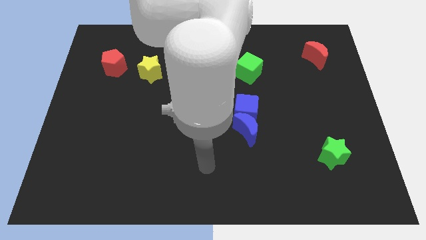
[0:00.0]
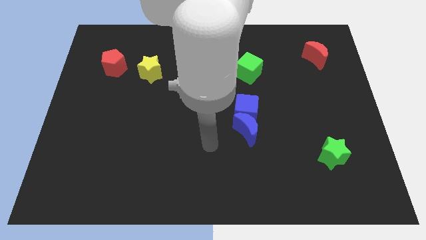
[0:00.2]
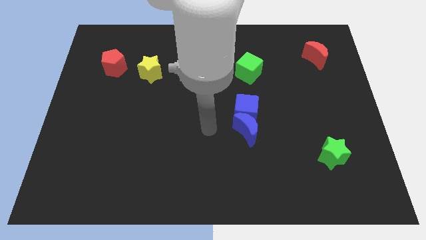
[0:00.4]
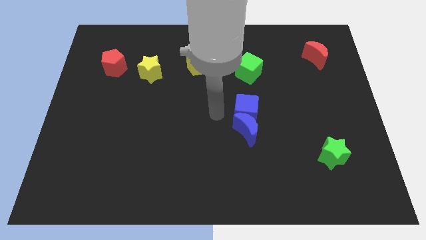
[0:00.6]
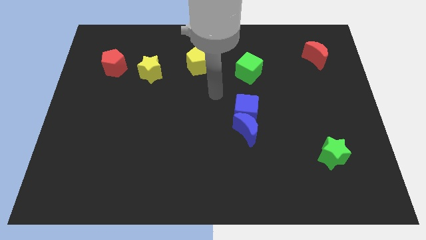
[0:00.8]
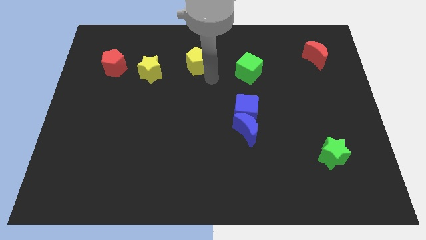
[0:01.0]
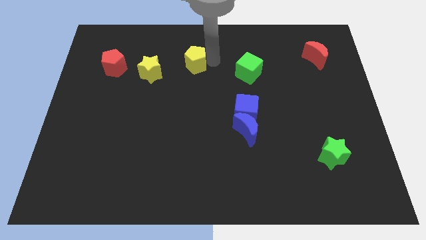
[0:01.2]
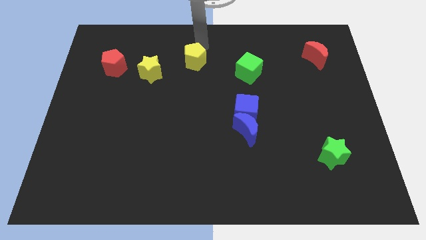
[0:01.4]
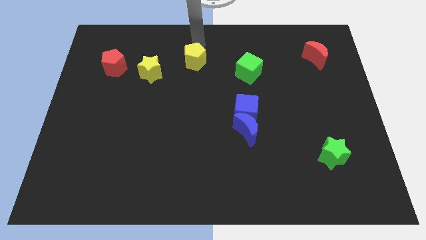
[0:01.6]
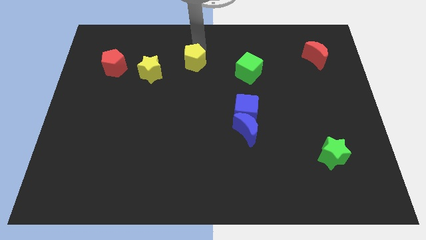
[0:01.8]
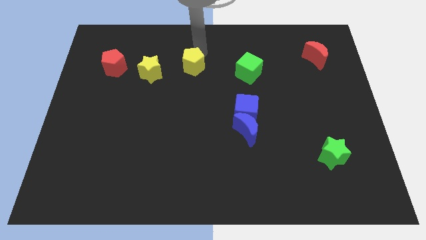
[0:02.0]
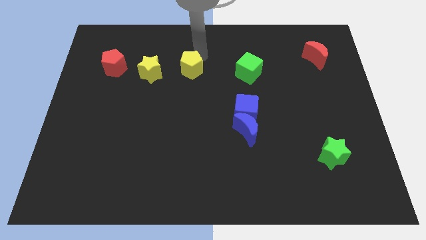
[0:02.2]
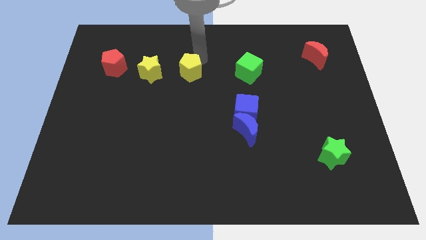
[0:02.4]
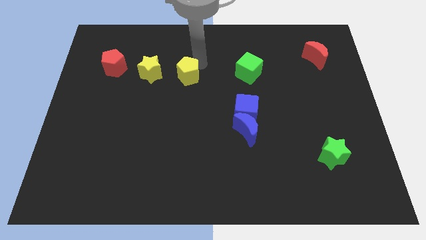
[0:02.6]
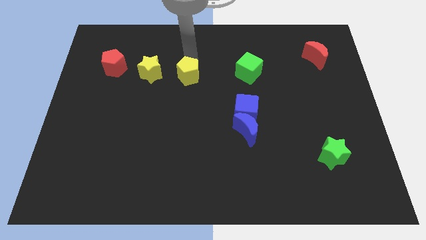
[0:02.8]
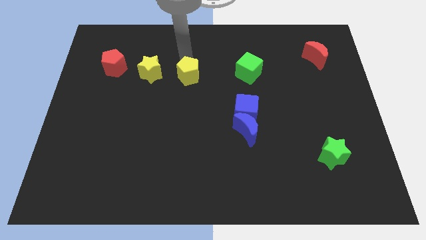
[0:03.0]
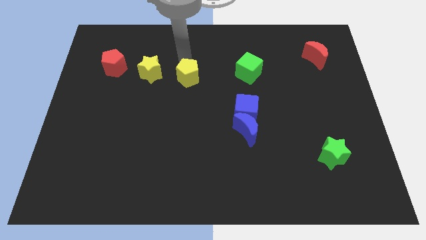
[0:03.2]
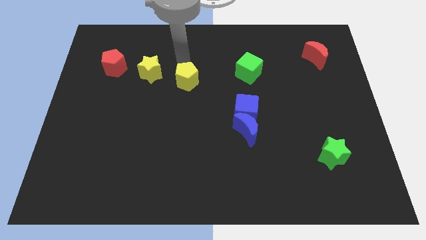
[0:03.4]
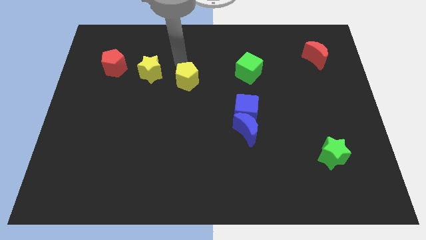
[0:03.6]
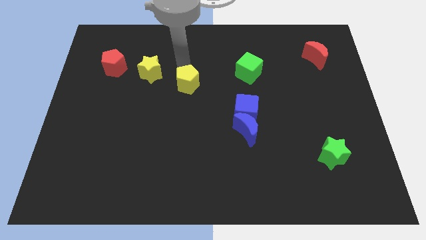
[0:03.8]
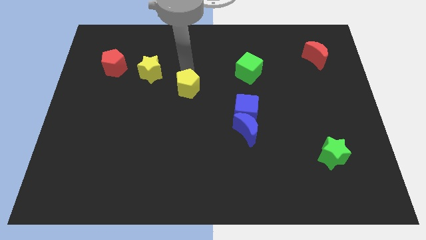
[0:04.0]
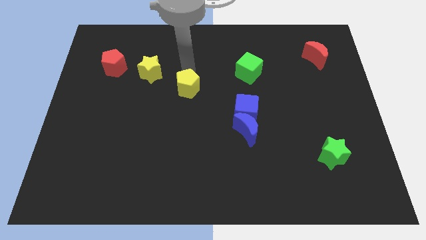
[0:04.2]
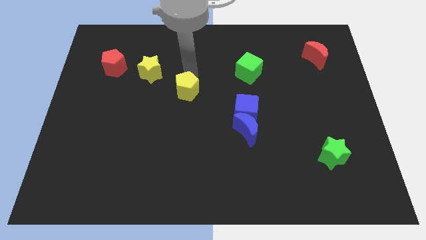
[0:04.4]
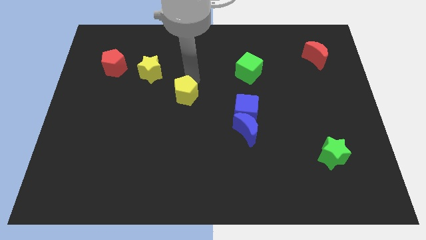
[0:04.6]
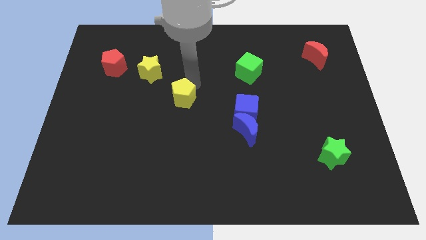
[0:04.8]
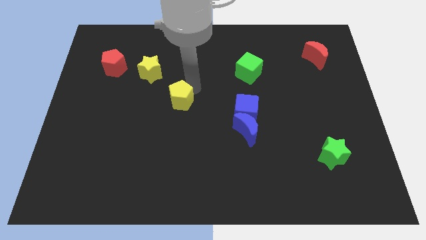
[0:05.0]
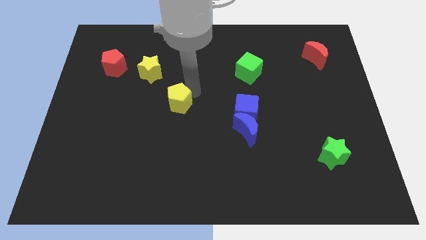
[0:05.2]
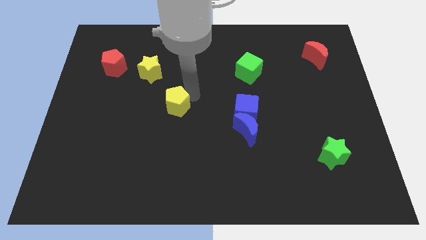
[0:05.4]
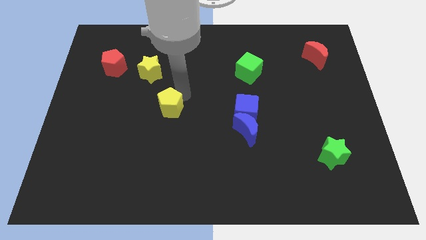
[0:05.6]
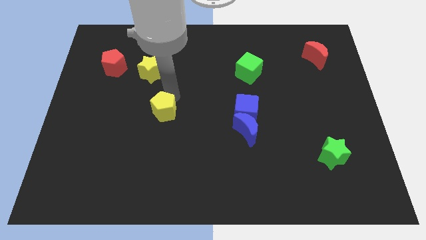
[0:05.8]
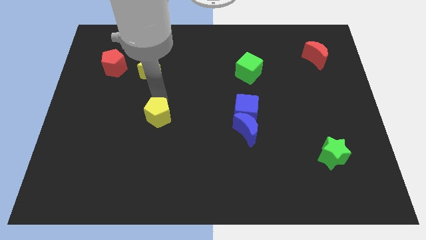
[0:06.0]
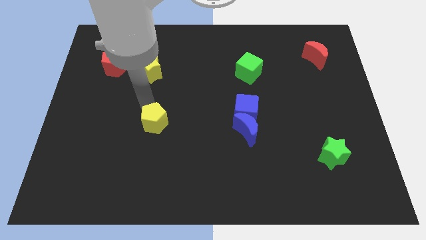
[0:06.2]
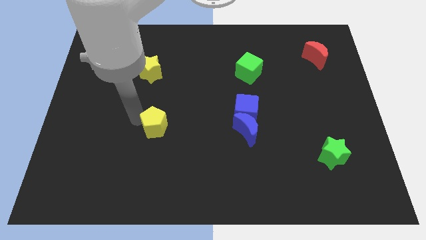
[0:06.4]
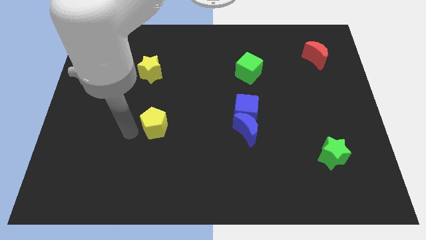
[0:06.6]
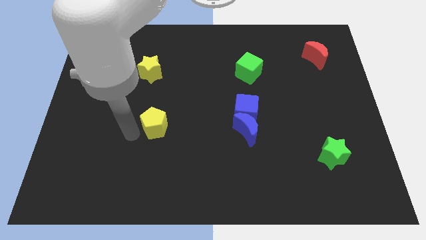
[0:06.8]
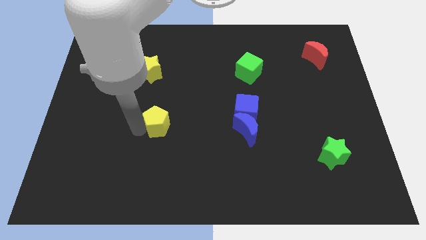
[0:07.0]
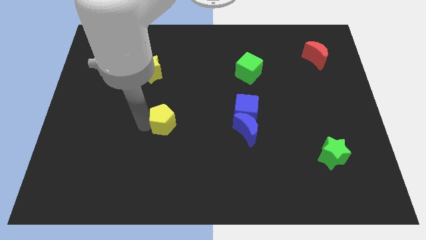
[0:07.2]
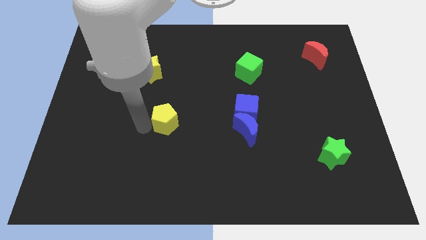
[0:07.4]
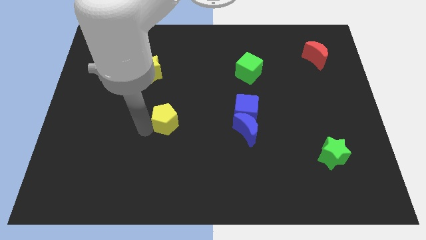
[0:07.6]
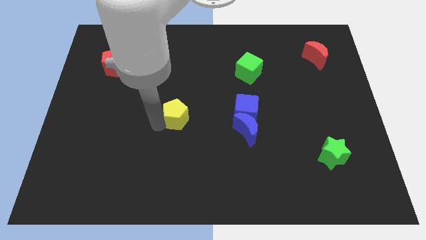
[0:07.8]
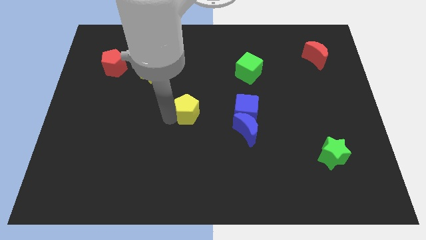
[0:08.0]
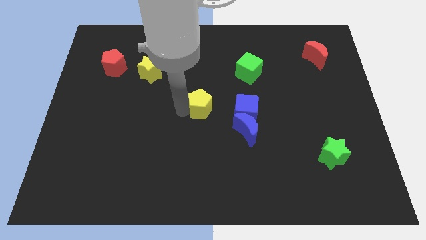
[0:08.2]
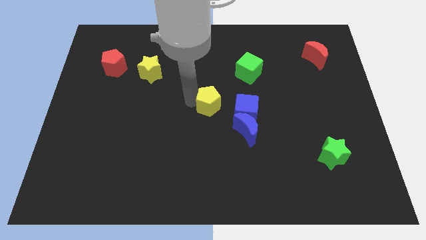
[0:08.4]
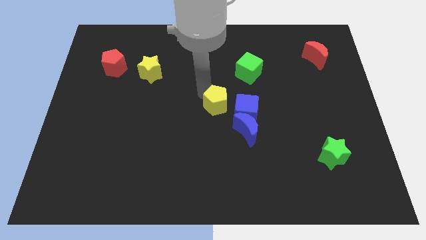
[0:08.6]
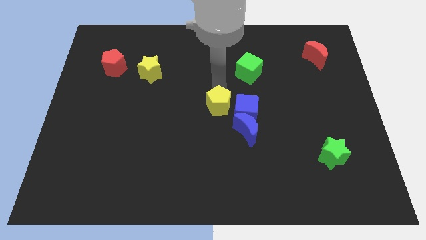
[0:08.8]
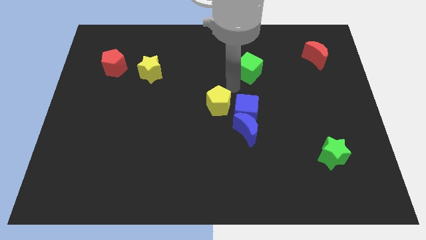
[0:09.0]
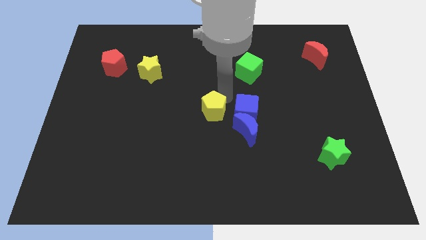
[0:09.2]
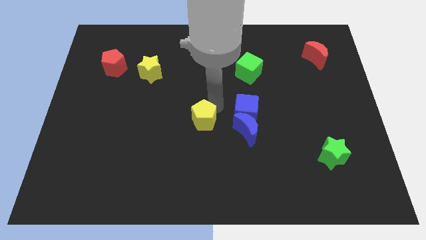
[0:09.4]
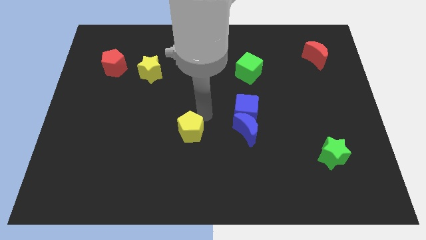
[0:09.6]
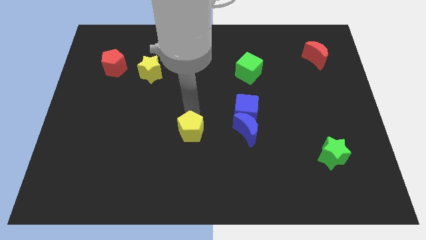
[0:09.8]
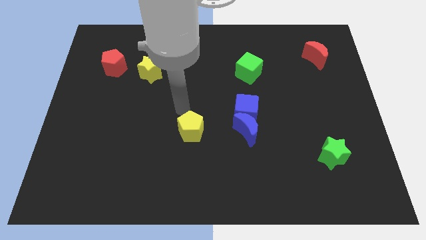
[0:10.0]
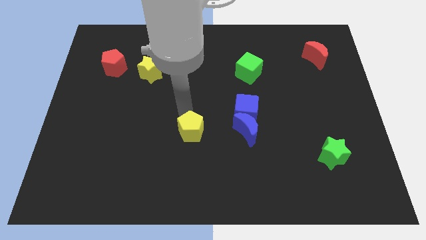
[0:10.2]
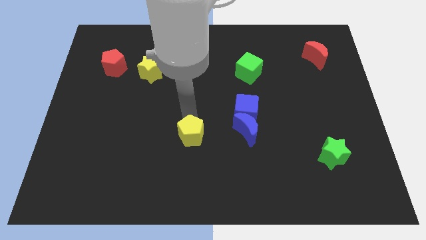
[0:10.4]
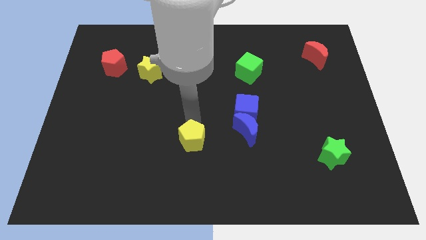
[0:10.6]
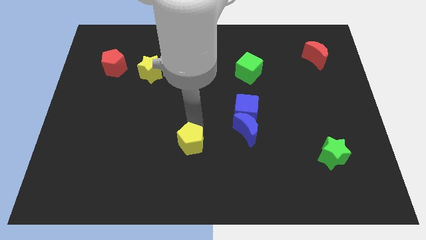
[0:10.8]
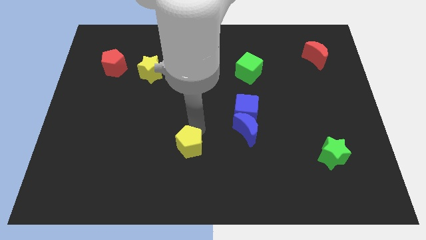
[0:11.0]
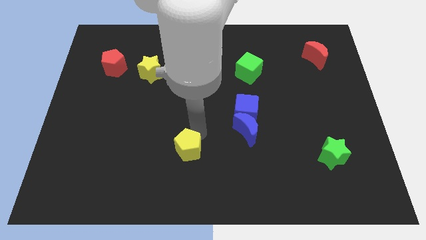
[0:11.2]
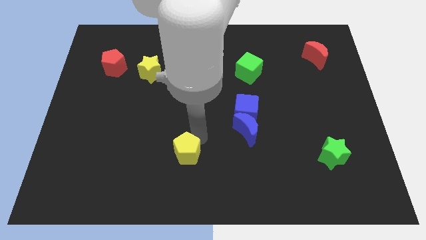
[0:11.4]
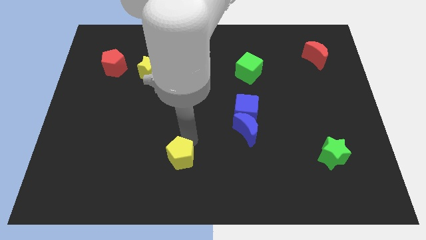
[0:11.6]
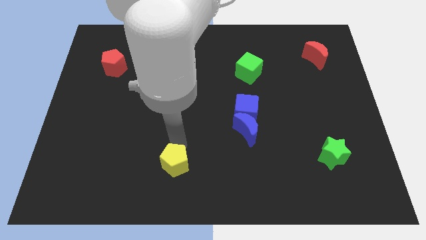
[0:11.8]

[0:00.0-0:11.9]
move the yellow pentagon to the bottom side
